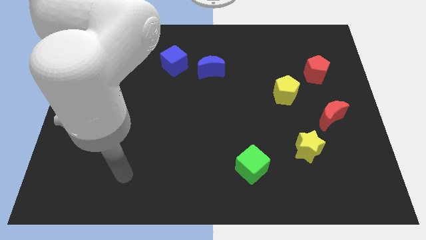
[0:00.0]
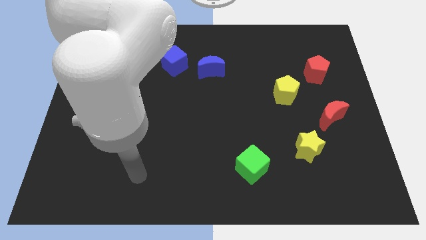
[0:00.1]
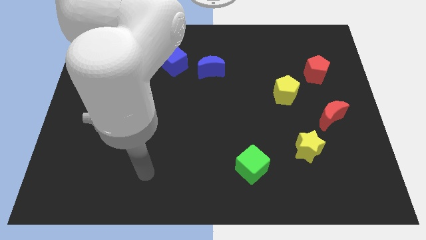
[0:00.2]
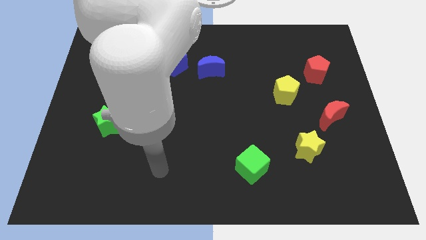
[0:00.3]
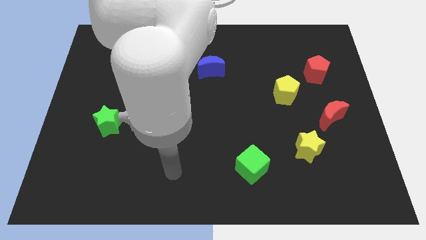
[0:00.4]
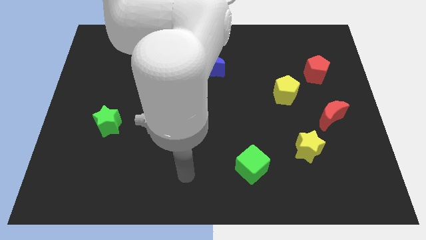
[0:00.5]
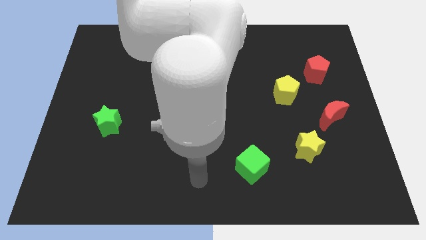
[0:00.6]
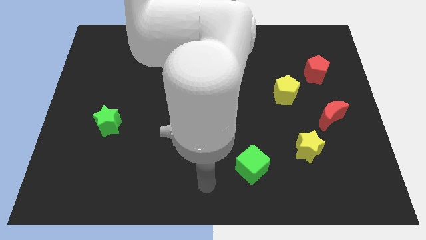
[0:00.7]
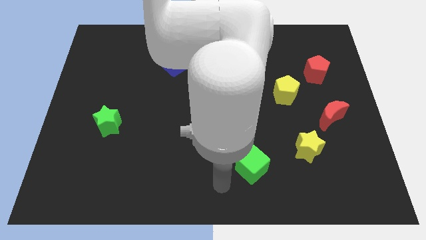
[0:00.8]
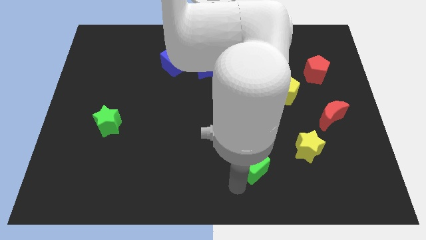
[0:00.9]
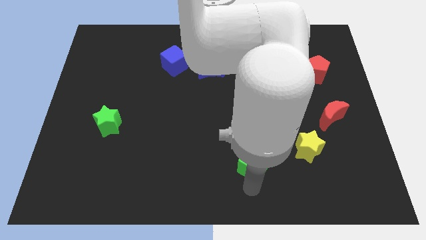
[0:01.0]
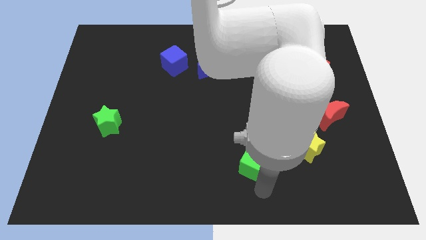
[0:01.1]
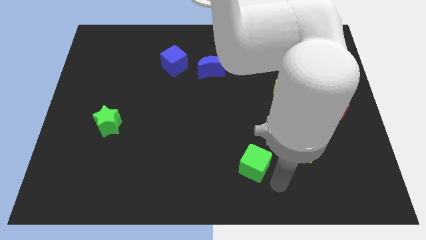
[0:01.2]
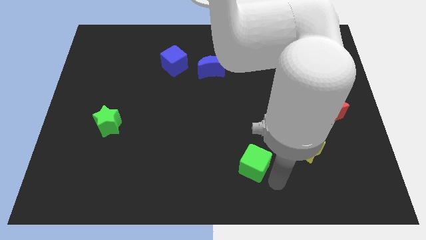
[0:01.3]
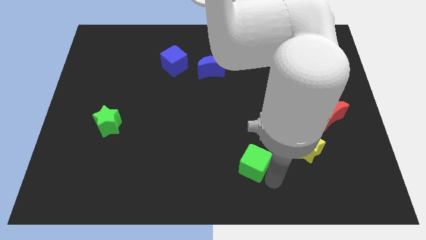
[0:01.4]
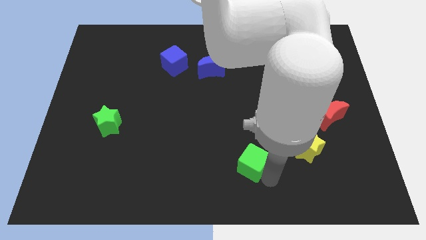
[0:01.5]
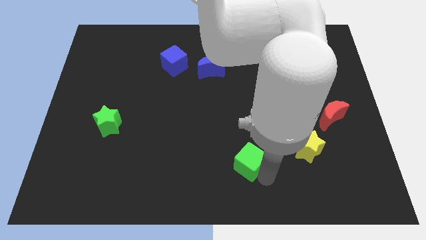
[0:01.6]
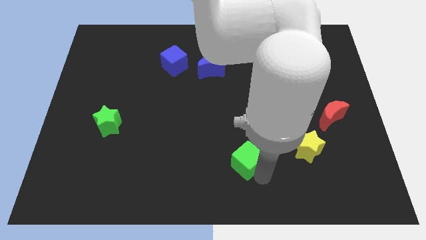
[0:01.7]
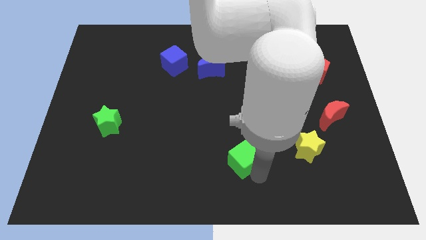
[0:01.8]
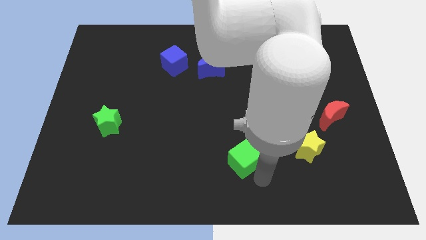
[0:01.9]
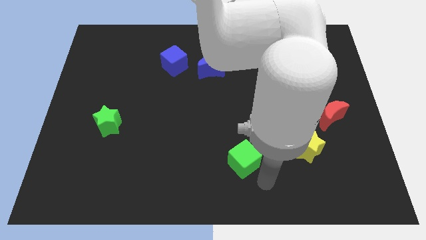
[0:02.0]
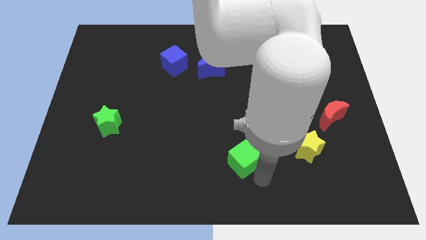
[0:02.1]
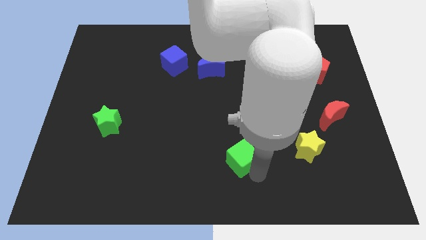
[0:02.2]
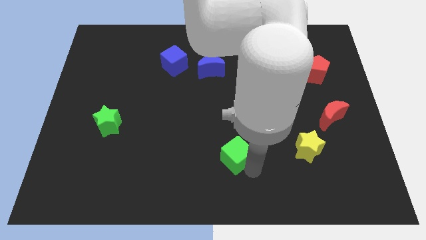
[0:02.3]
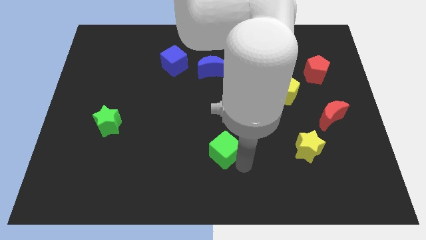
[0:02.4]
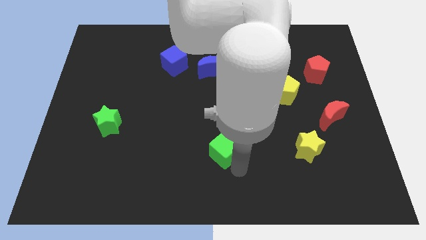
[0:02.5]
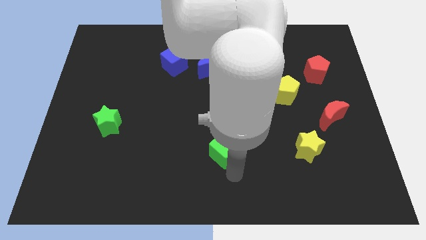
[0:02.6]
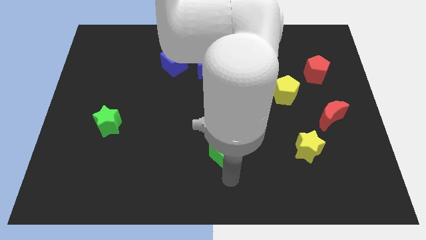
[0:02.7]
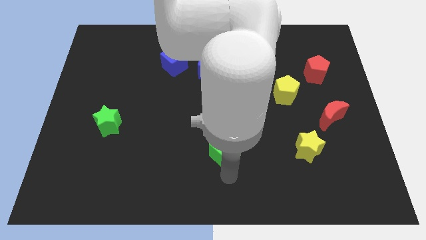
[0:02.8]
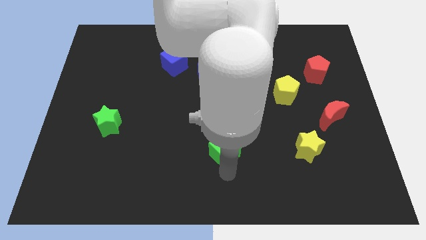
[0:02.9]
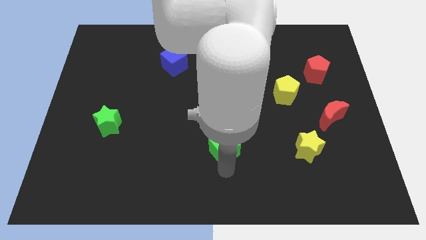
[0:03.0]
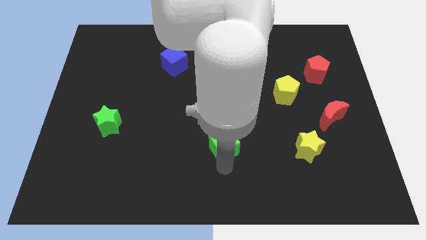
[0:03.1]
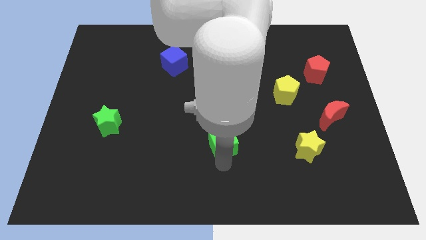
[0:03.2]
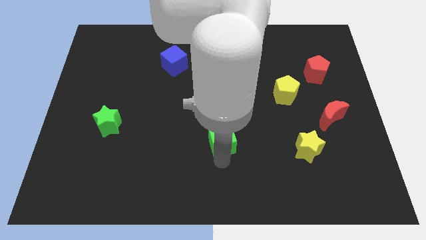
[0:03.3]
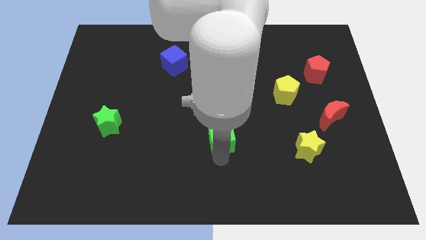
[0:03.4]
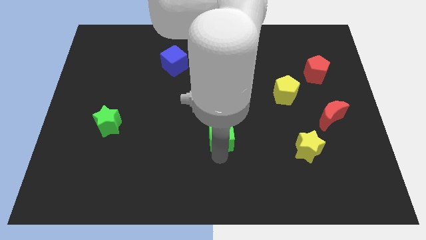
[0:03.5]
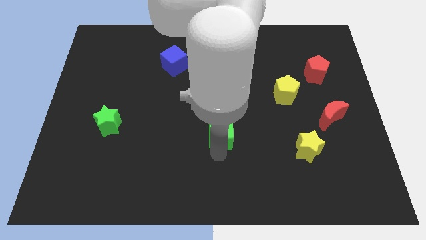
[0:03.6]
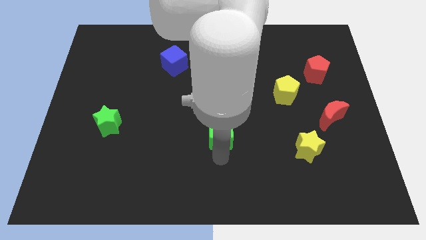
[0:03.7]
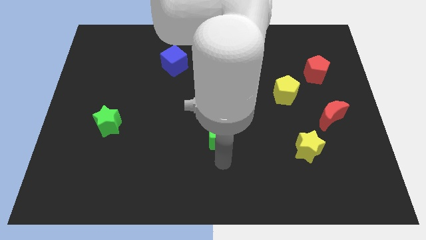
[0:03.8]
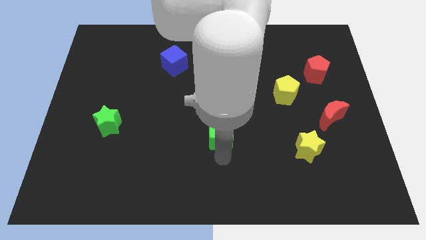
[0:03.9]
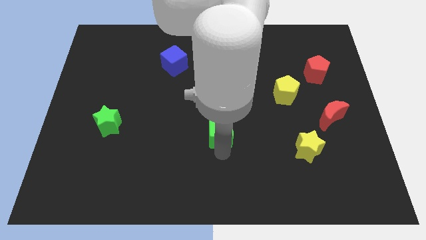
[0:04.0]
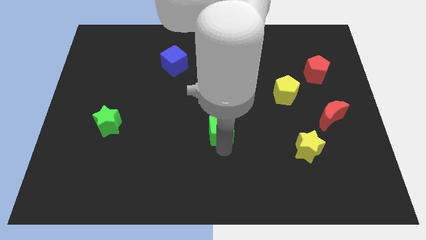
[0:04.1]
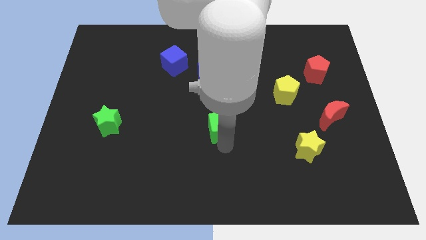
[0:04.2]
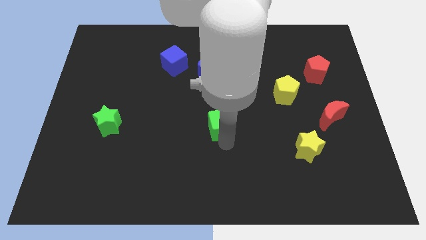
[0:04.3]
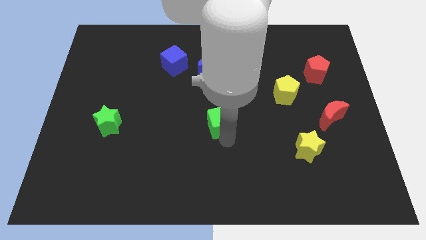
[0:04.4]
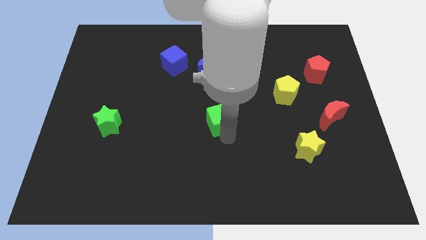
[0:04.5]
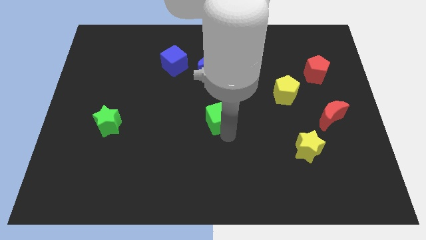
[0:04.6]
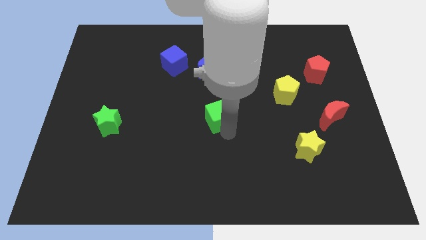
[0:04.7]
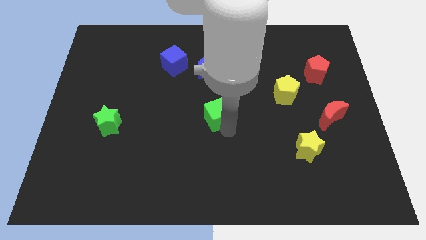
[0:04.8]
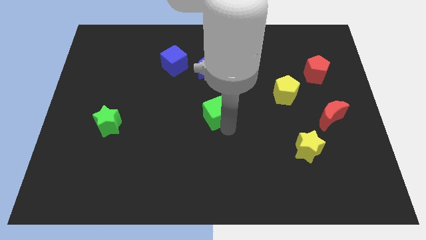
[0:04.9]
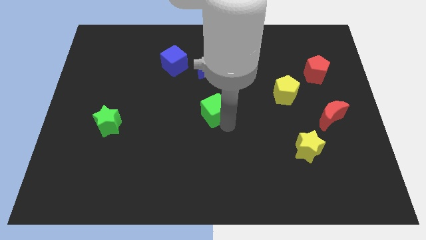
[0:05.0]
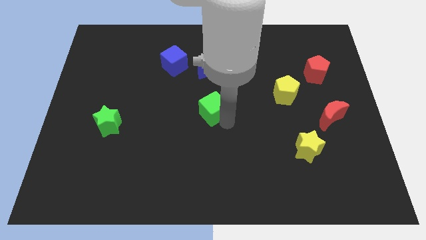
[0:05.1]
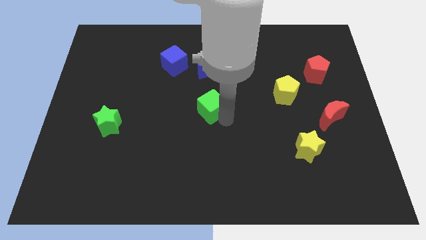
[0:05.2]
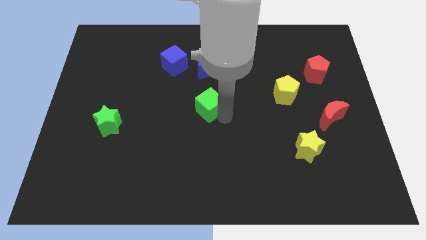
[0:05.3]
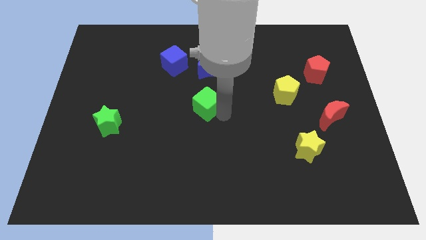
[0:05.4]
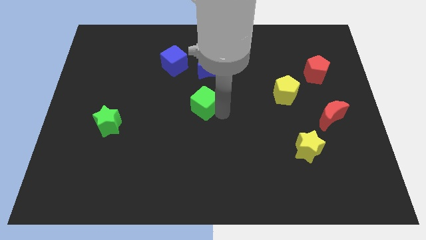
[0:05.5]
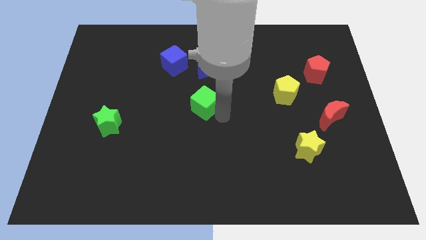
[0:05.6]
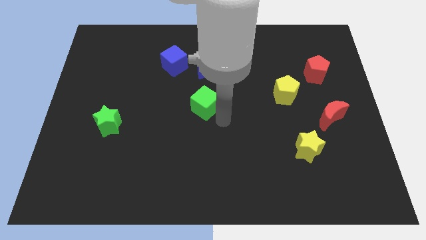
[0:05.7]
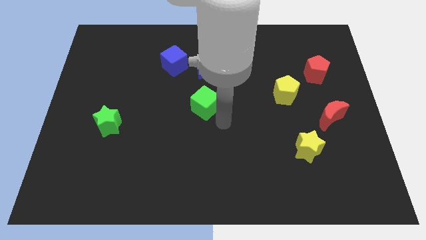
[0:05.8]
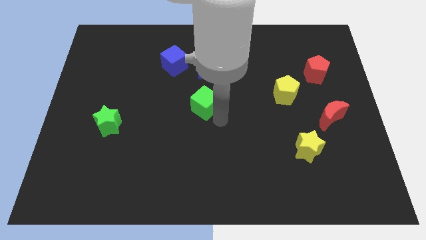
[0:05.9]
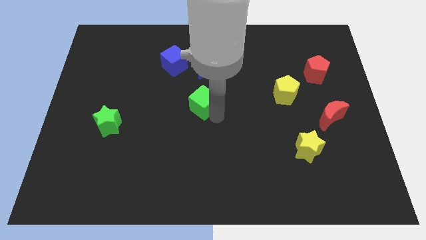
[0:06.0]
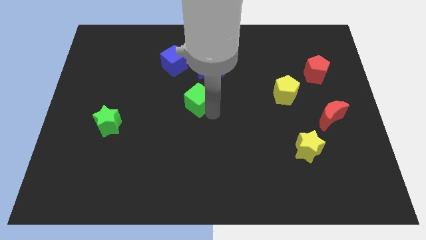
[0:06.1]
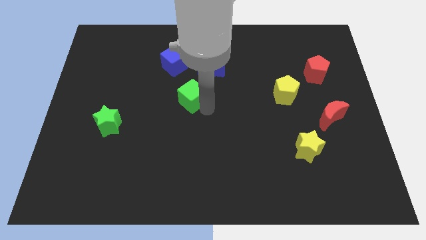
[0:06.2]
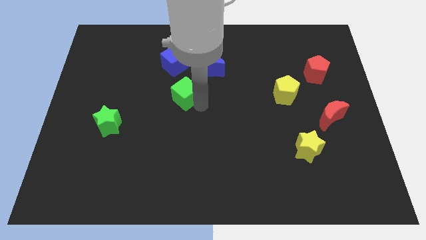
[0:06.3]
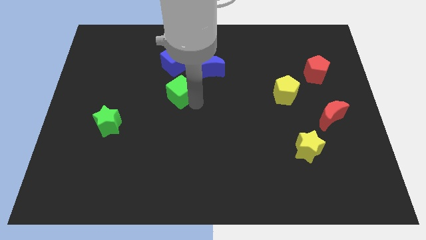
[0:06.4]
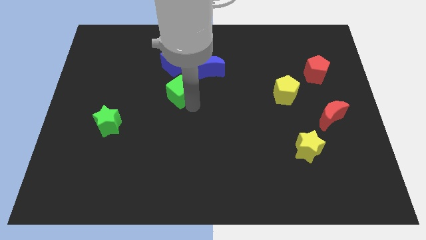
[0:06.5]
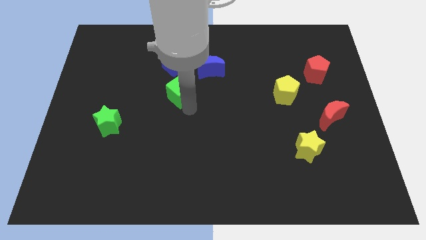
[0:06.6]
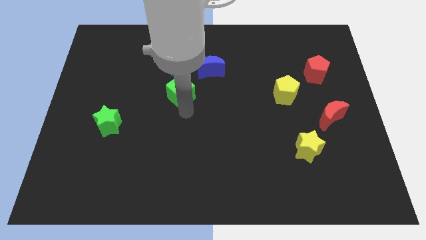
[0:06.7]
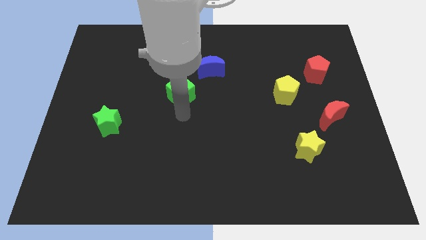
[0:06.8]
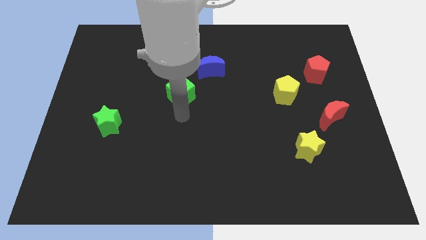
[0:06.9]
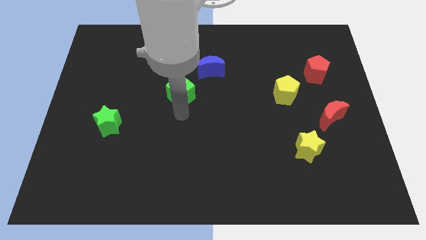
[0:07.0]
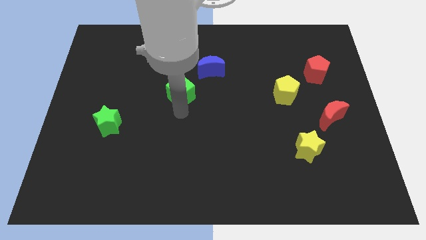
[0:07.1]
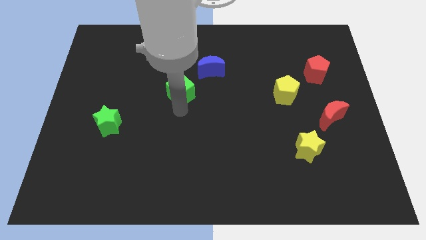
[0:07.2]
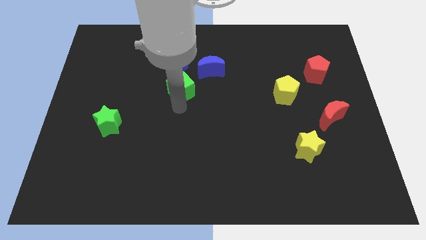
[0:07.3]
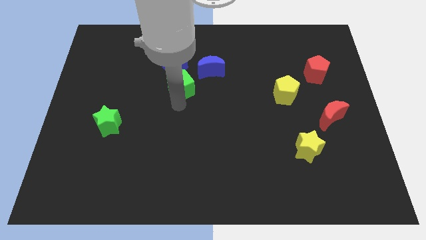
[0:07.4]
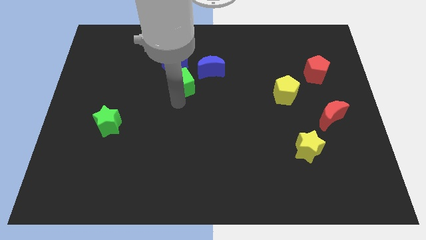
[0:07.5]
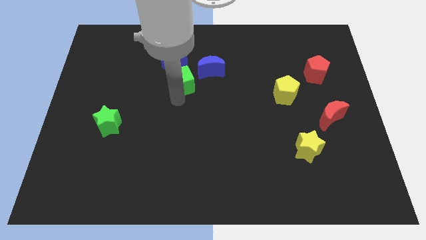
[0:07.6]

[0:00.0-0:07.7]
push the green cube to the left of the blue moon

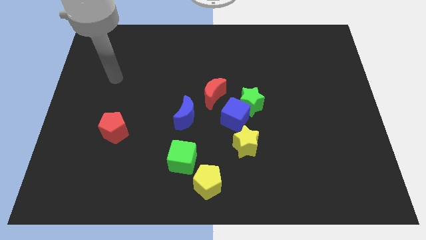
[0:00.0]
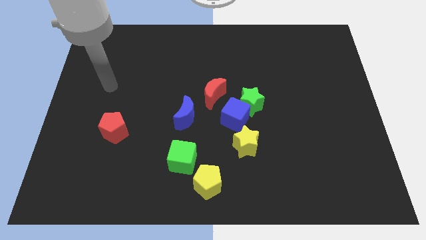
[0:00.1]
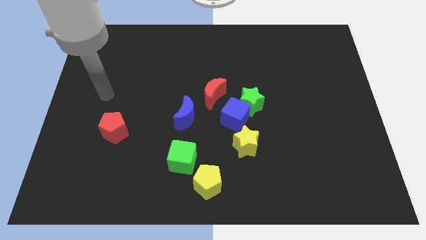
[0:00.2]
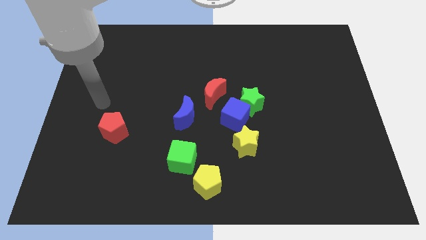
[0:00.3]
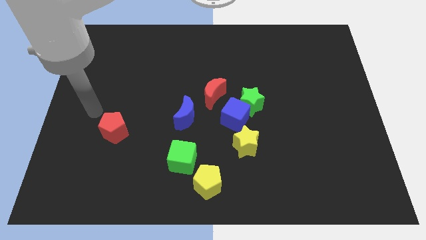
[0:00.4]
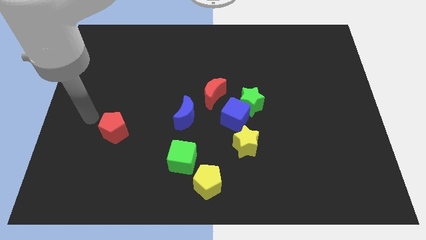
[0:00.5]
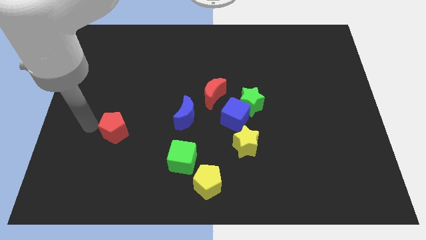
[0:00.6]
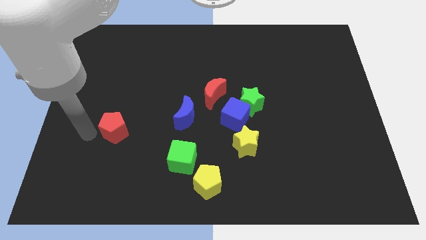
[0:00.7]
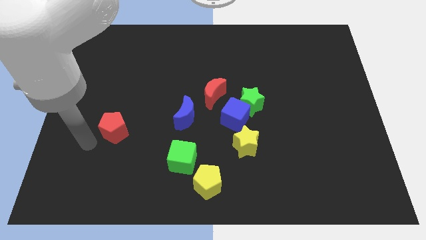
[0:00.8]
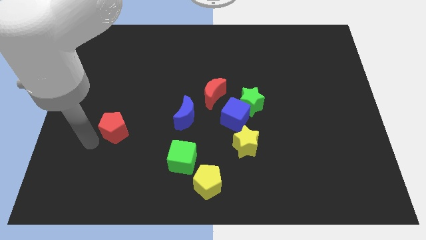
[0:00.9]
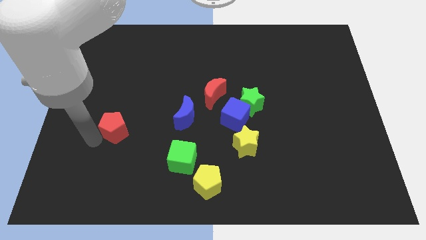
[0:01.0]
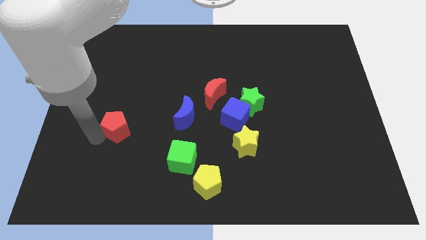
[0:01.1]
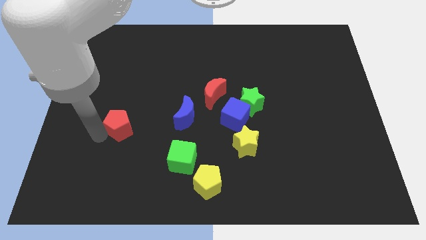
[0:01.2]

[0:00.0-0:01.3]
push the red pentagon left of the blue moon
